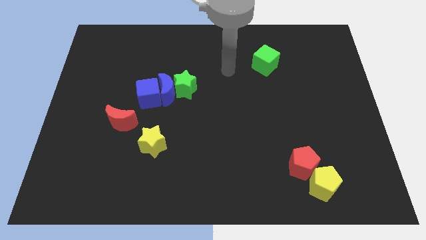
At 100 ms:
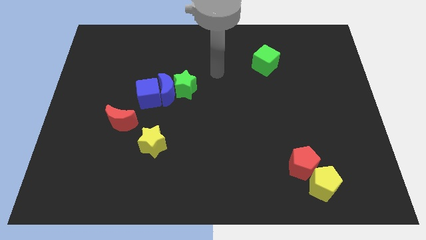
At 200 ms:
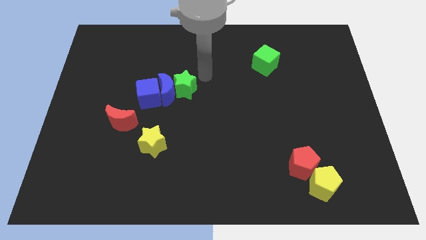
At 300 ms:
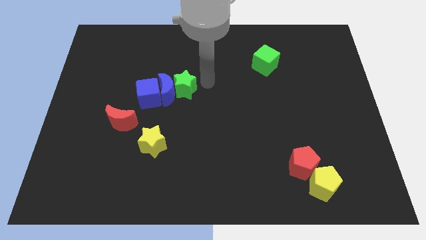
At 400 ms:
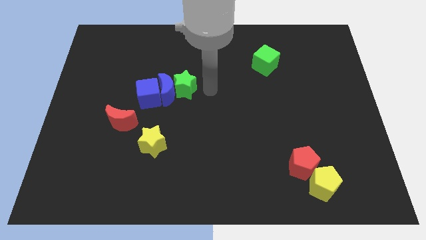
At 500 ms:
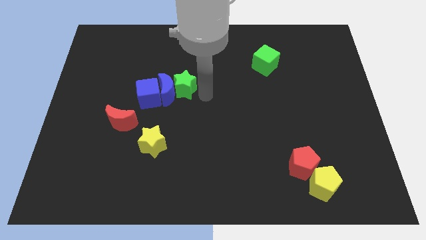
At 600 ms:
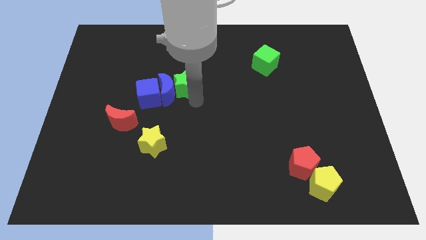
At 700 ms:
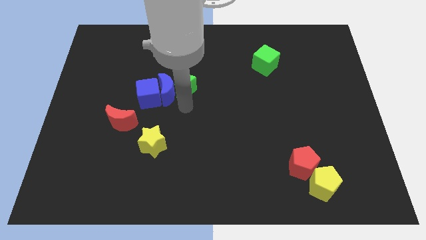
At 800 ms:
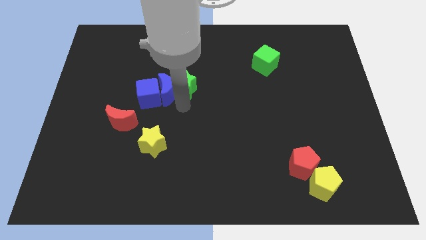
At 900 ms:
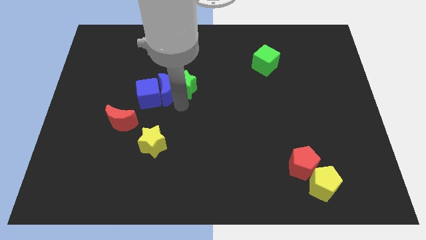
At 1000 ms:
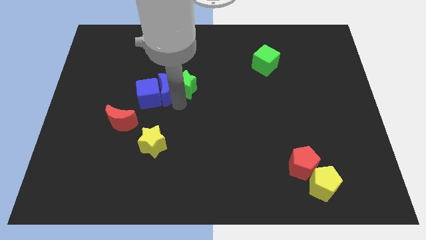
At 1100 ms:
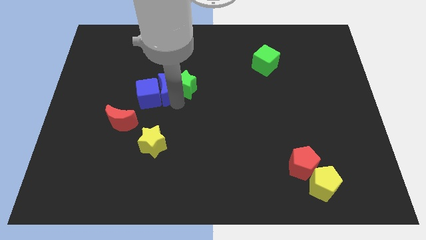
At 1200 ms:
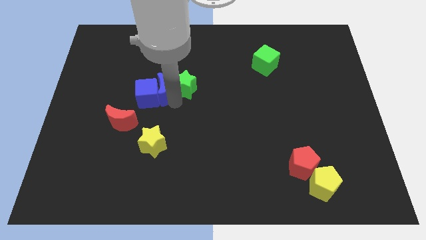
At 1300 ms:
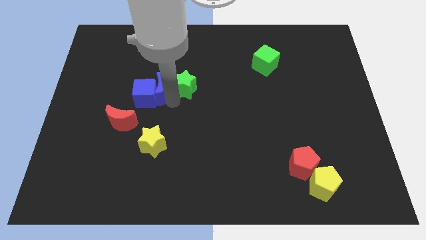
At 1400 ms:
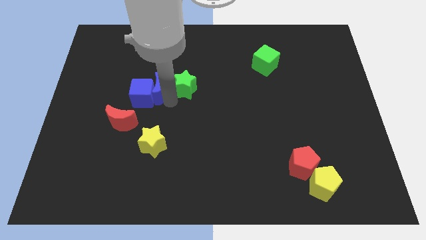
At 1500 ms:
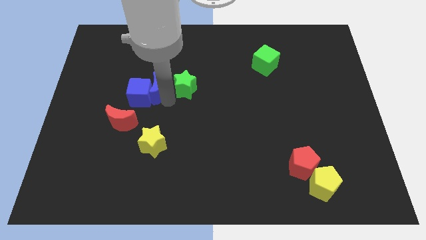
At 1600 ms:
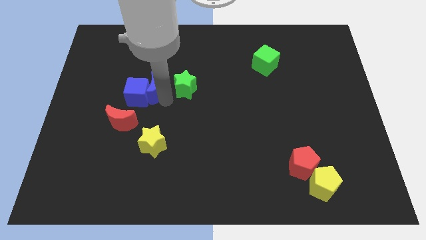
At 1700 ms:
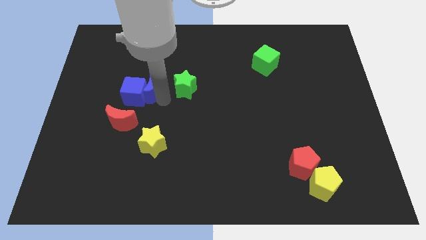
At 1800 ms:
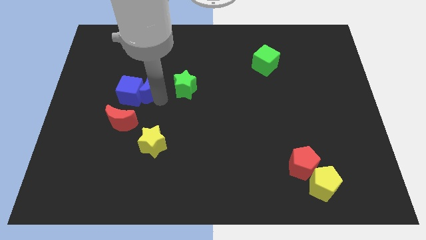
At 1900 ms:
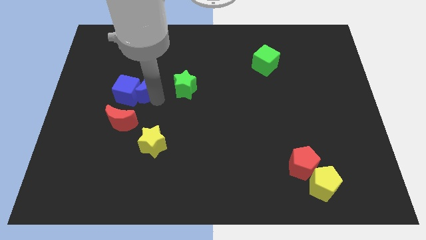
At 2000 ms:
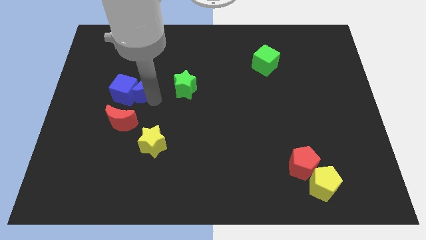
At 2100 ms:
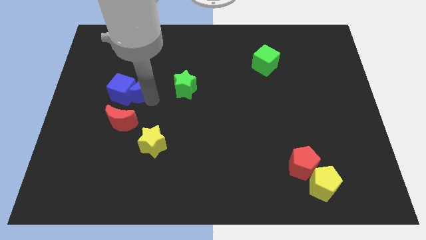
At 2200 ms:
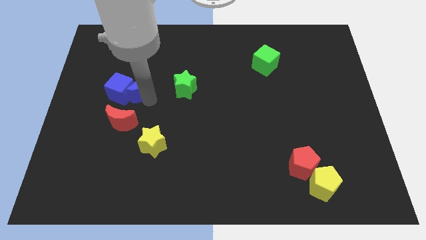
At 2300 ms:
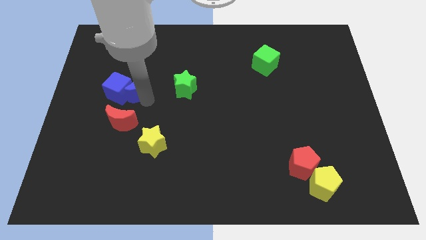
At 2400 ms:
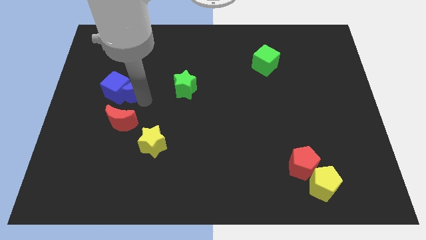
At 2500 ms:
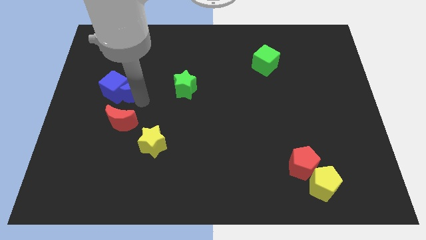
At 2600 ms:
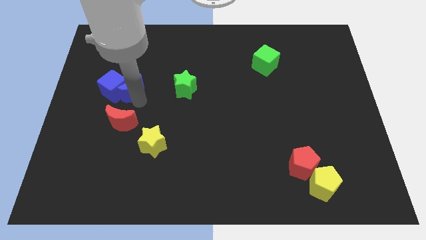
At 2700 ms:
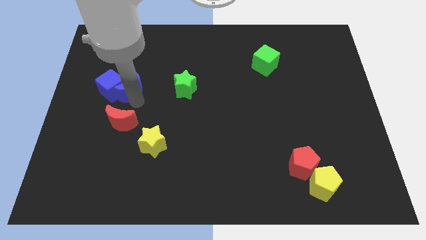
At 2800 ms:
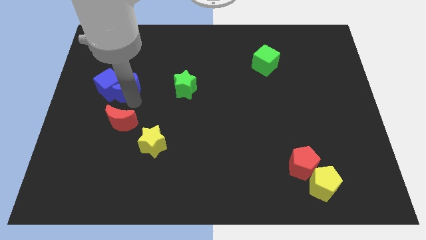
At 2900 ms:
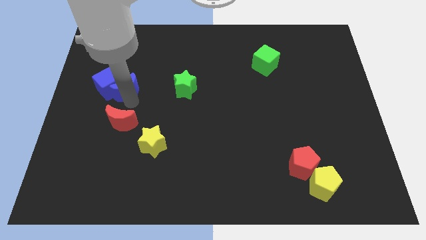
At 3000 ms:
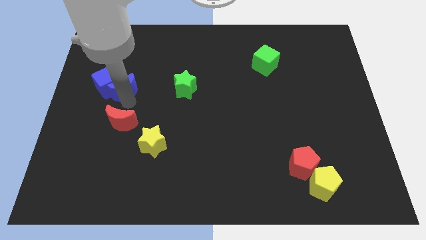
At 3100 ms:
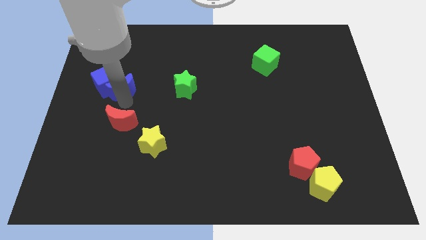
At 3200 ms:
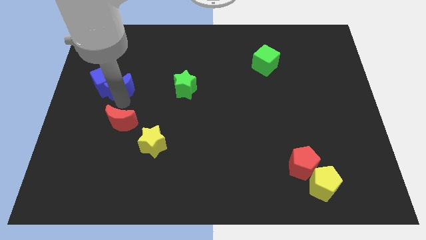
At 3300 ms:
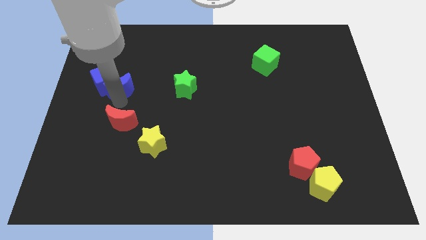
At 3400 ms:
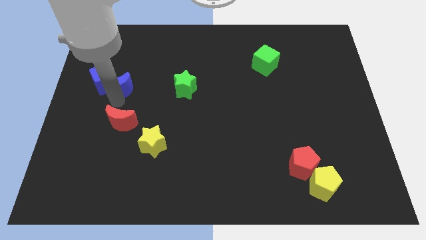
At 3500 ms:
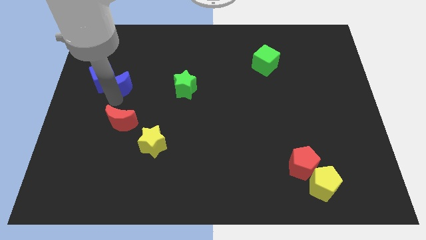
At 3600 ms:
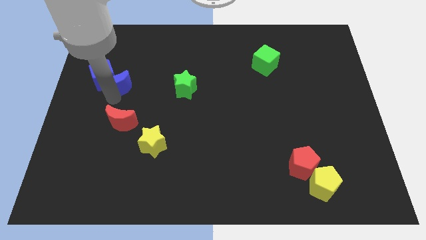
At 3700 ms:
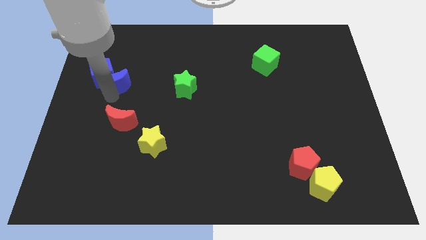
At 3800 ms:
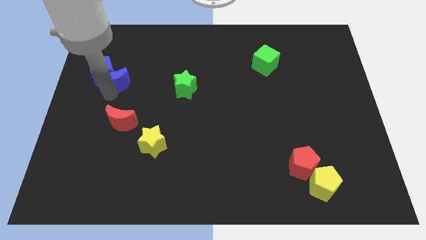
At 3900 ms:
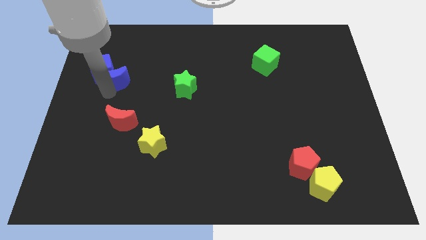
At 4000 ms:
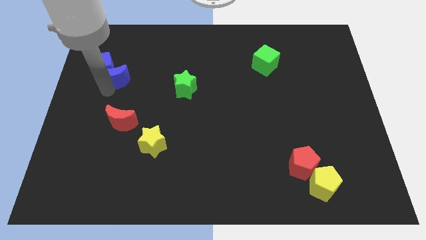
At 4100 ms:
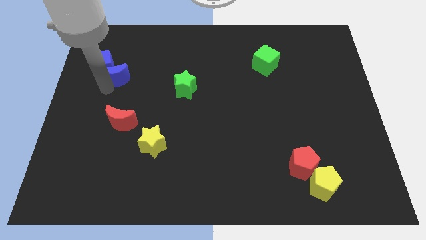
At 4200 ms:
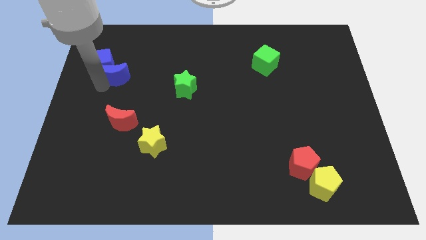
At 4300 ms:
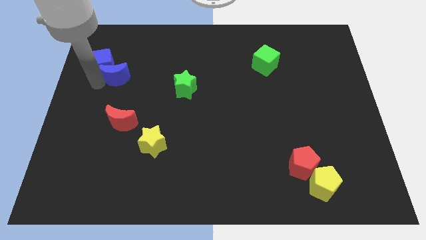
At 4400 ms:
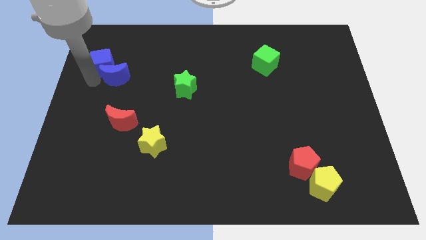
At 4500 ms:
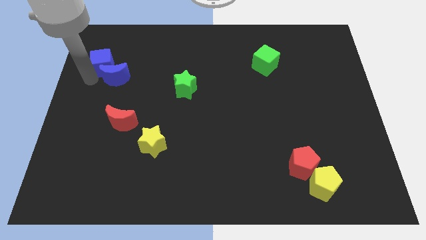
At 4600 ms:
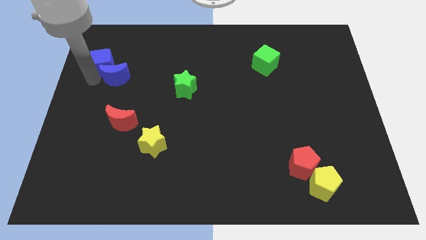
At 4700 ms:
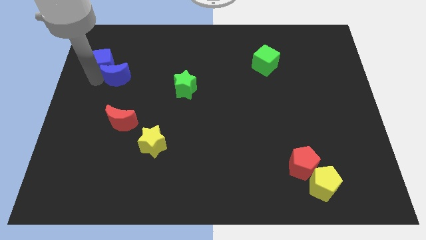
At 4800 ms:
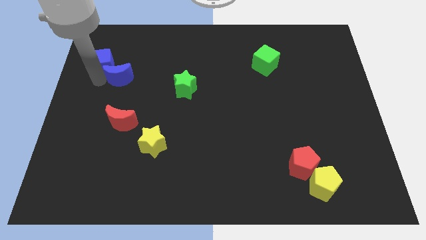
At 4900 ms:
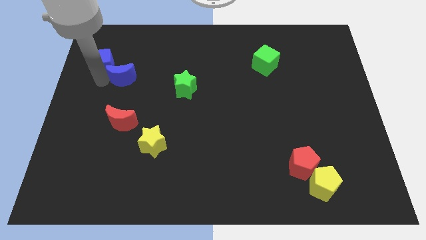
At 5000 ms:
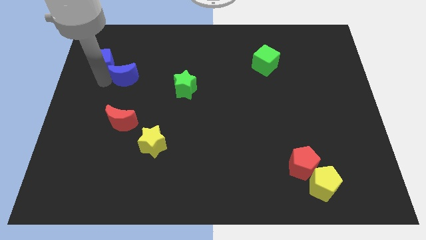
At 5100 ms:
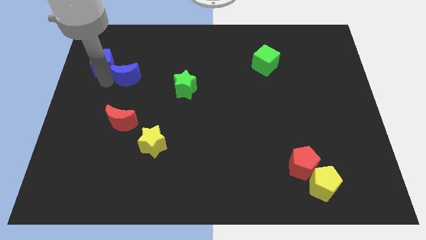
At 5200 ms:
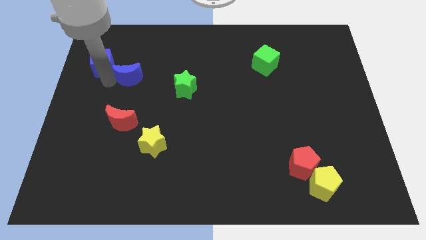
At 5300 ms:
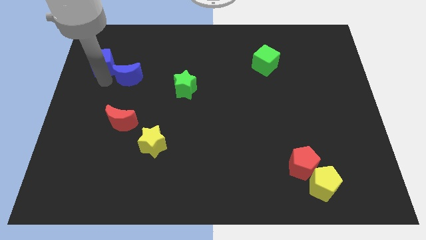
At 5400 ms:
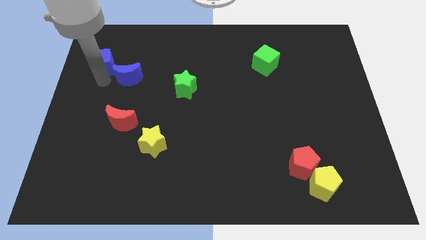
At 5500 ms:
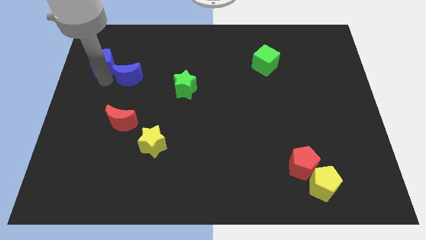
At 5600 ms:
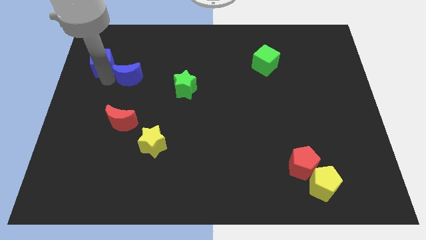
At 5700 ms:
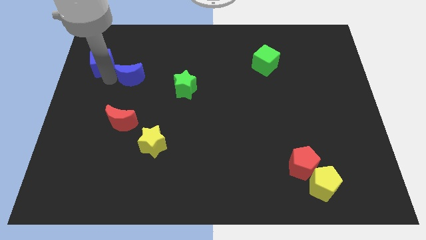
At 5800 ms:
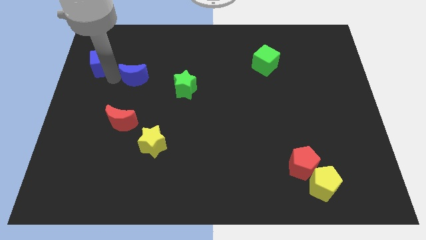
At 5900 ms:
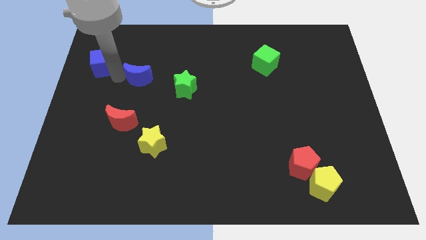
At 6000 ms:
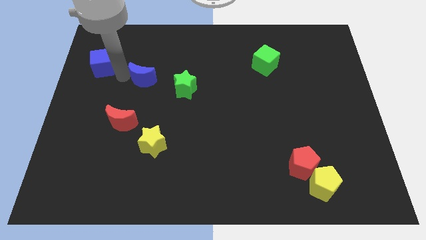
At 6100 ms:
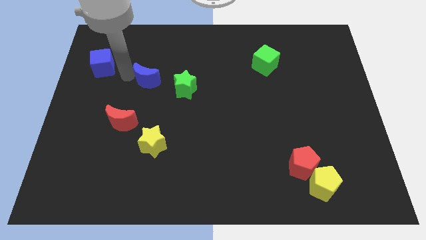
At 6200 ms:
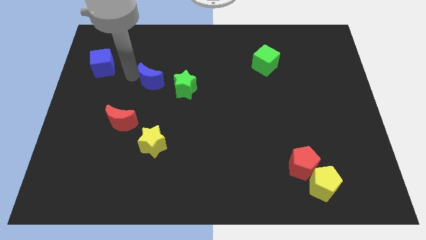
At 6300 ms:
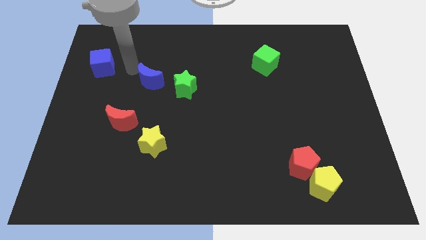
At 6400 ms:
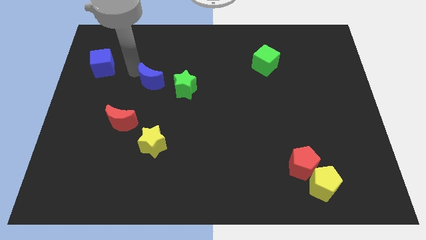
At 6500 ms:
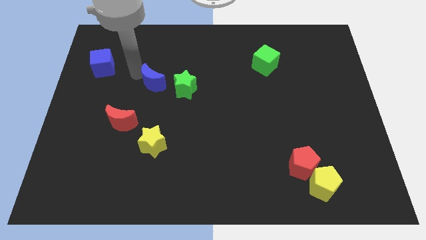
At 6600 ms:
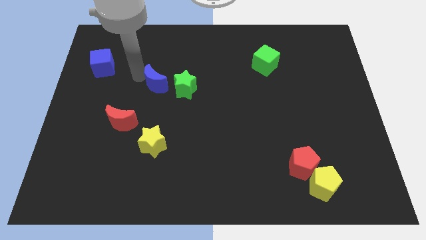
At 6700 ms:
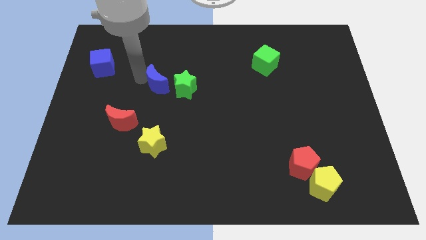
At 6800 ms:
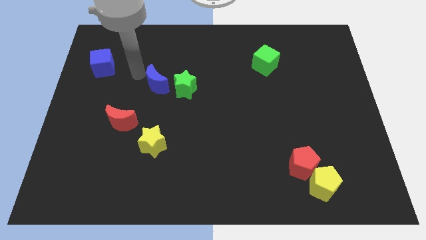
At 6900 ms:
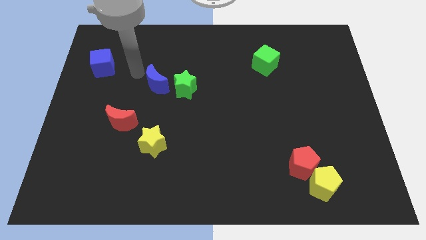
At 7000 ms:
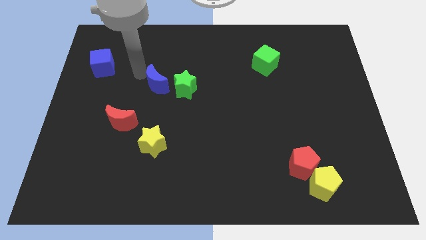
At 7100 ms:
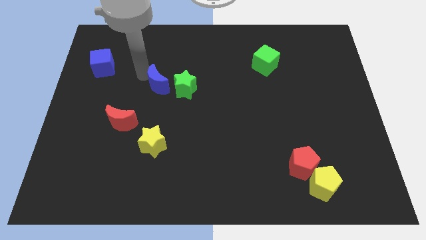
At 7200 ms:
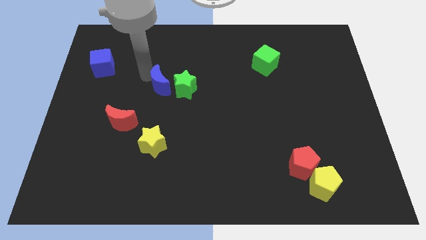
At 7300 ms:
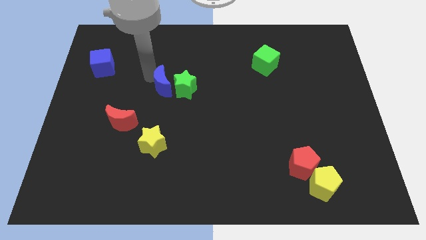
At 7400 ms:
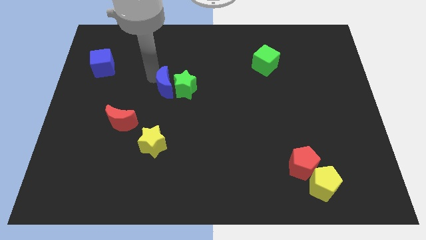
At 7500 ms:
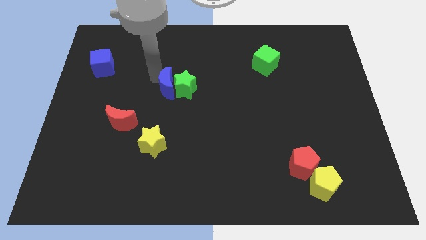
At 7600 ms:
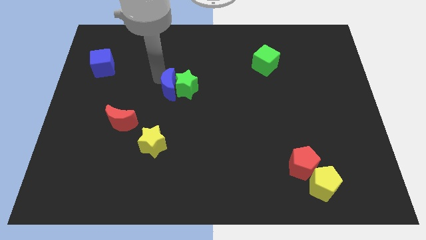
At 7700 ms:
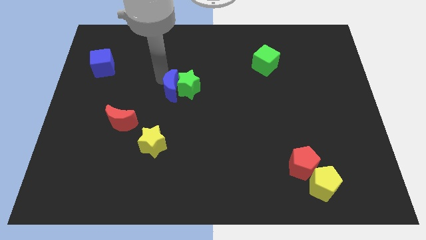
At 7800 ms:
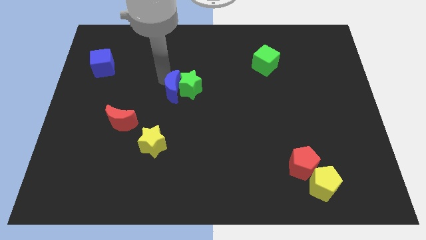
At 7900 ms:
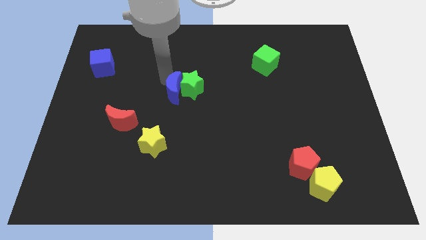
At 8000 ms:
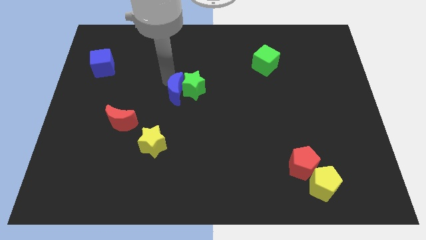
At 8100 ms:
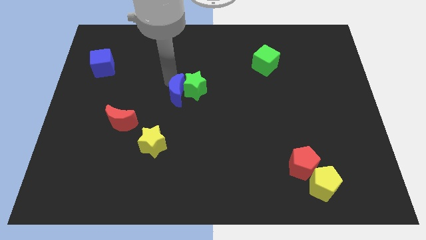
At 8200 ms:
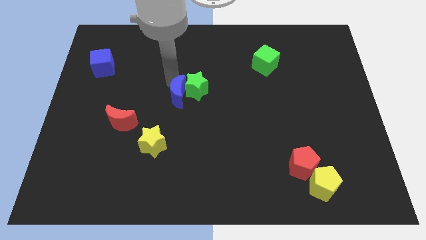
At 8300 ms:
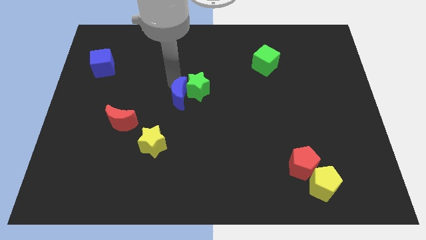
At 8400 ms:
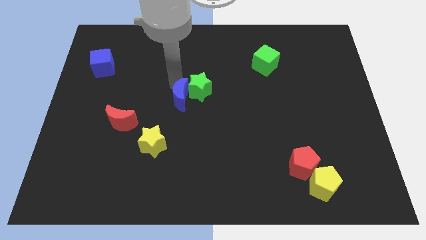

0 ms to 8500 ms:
separate the blue moon from the blue cube and green star

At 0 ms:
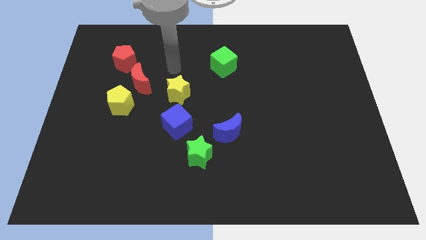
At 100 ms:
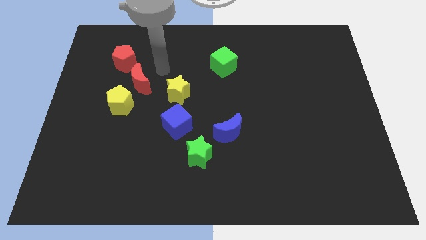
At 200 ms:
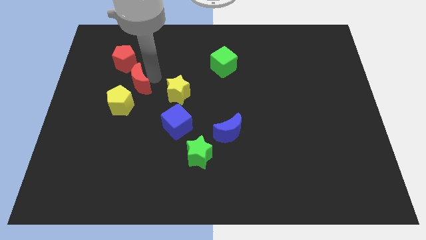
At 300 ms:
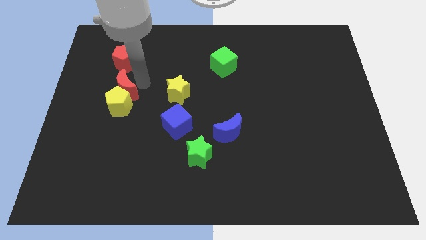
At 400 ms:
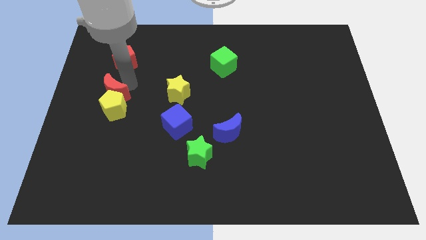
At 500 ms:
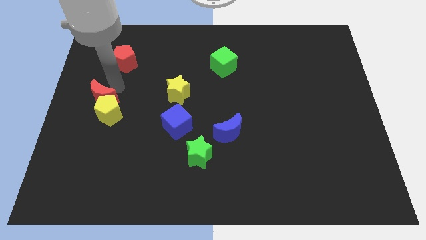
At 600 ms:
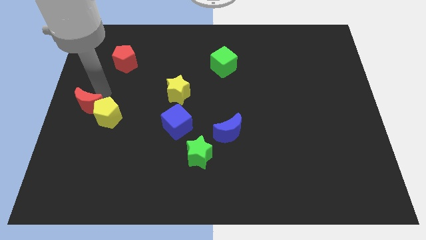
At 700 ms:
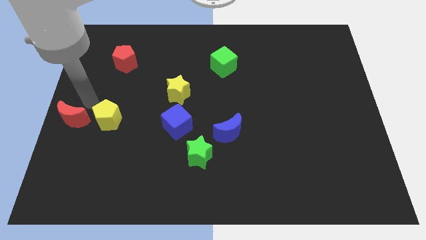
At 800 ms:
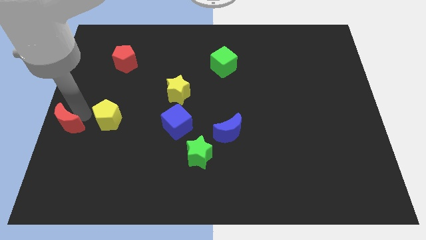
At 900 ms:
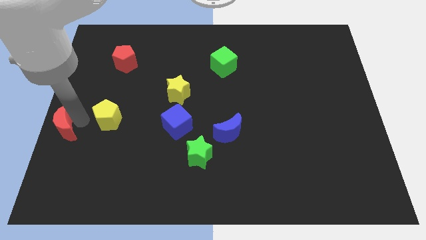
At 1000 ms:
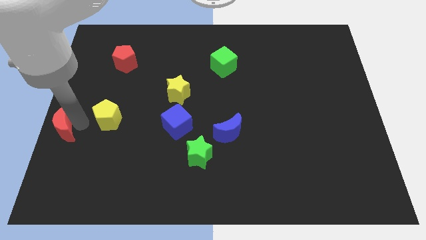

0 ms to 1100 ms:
pull the yellow pentagon apart from the red moon
